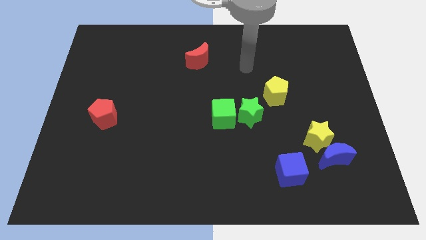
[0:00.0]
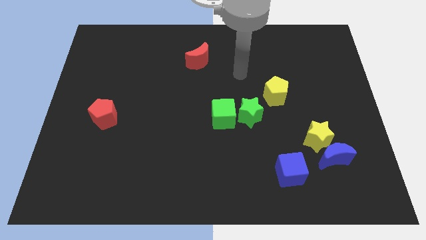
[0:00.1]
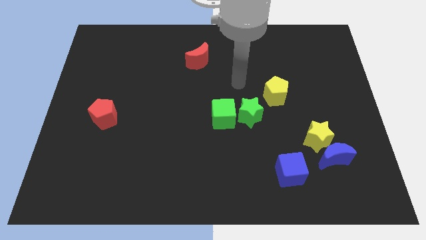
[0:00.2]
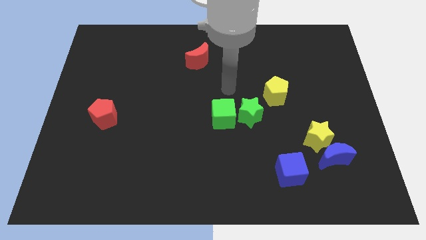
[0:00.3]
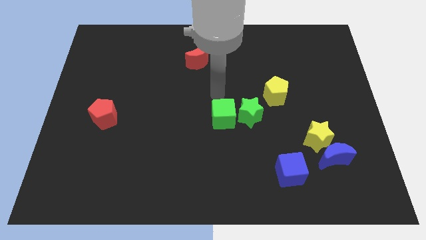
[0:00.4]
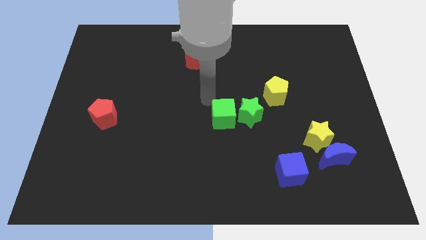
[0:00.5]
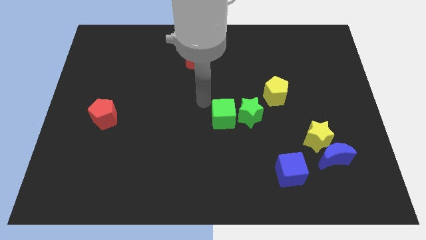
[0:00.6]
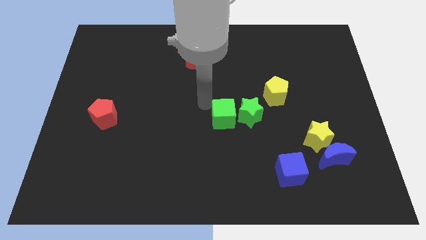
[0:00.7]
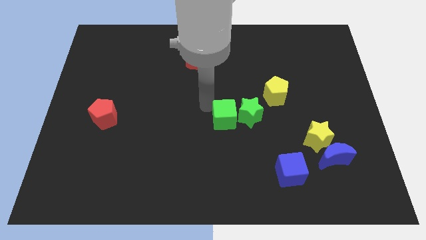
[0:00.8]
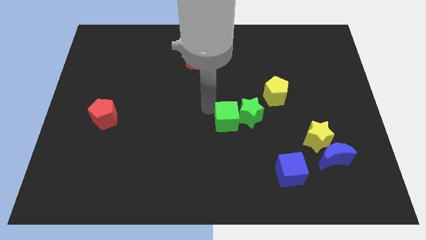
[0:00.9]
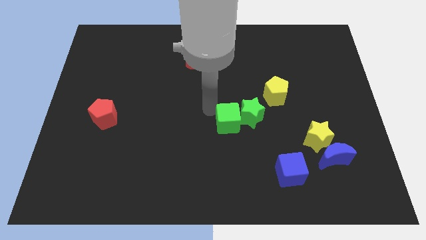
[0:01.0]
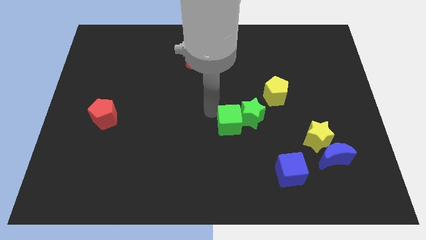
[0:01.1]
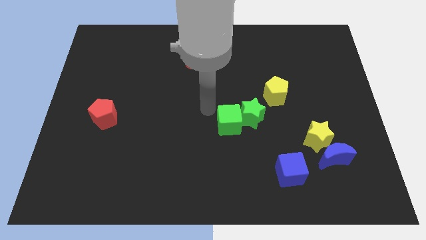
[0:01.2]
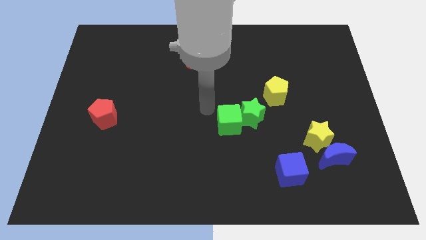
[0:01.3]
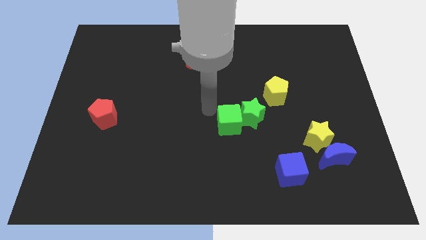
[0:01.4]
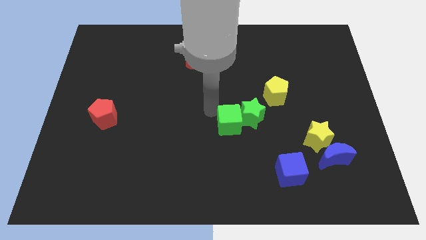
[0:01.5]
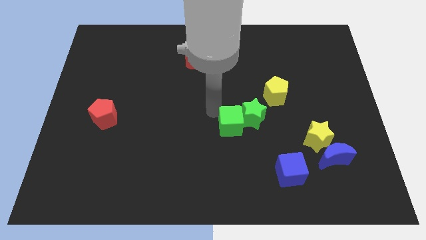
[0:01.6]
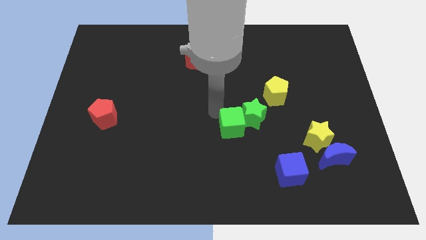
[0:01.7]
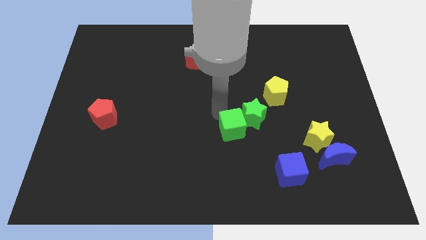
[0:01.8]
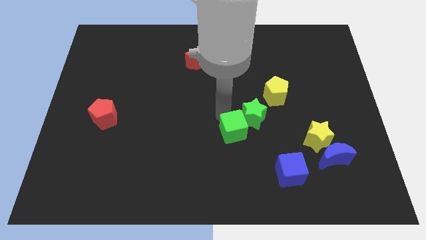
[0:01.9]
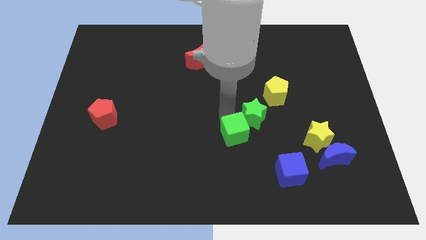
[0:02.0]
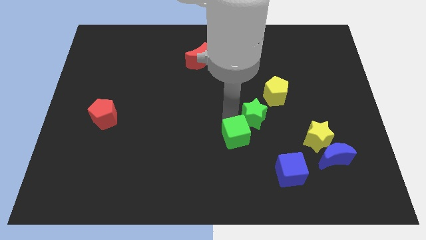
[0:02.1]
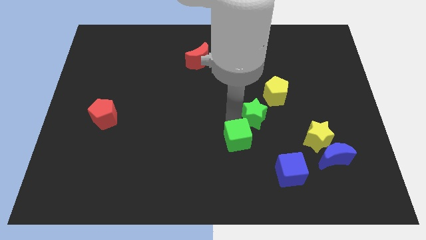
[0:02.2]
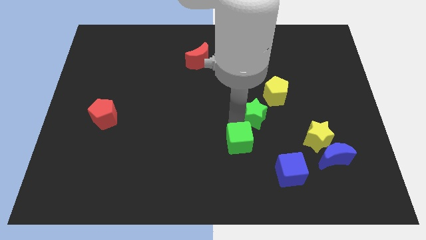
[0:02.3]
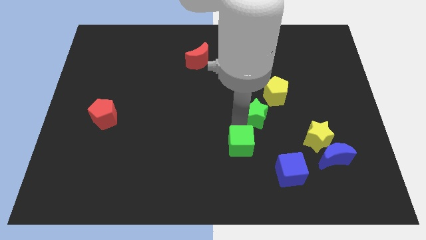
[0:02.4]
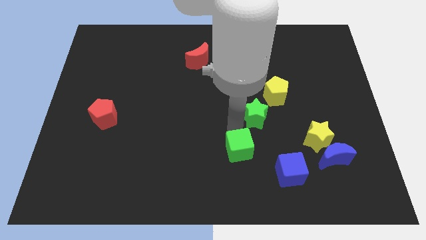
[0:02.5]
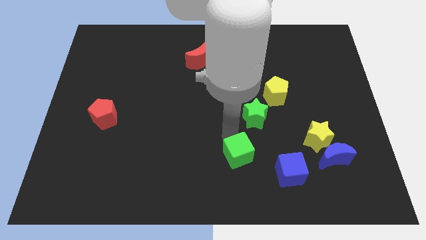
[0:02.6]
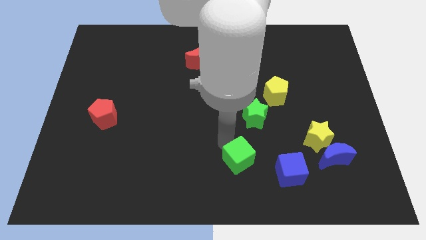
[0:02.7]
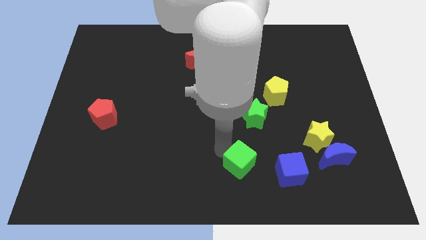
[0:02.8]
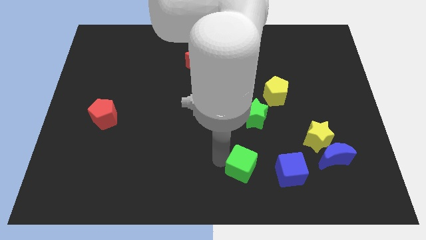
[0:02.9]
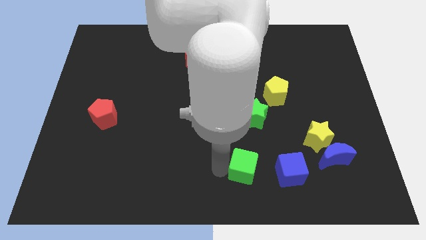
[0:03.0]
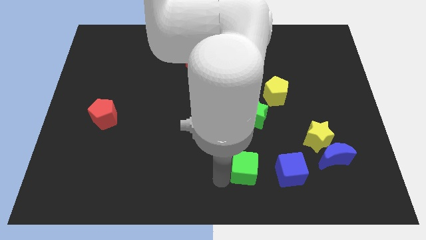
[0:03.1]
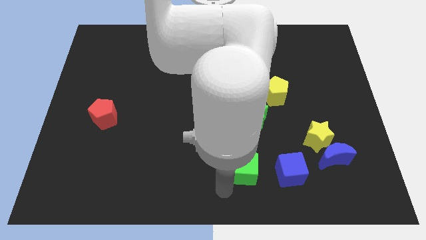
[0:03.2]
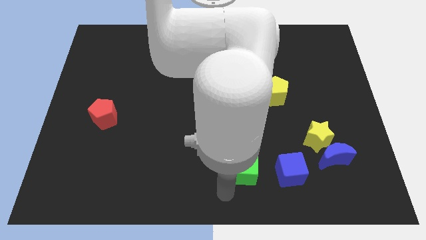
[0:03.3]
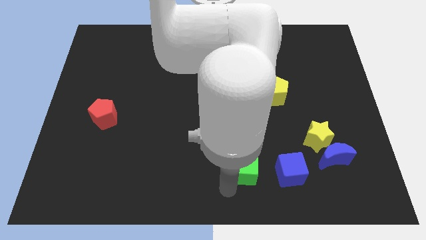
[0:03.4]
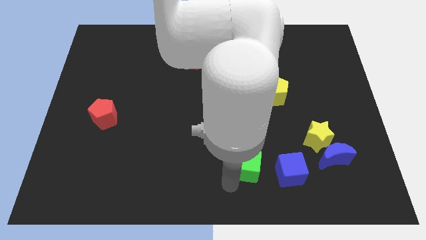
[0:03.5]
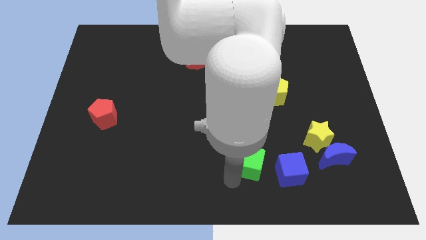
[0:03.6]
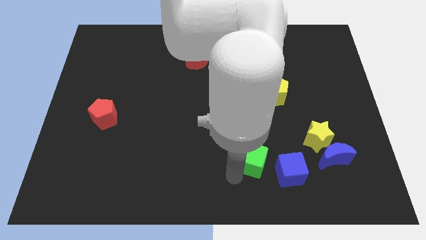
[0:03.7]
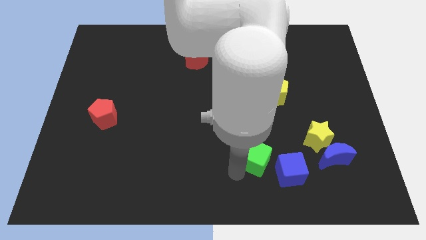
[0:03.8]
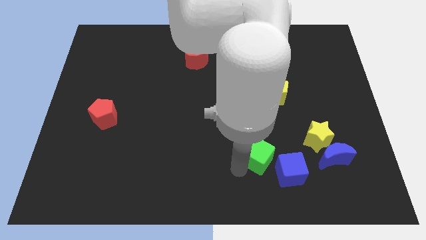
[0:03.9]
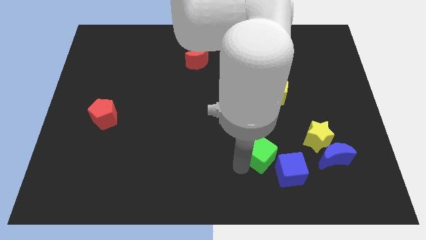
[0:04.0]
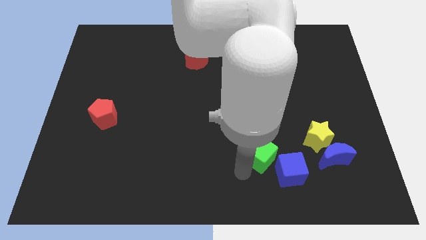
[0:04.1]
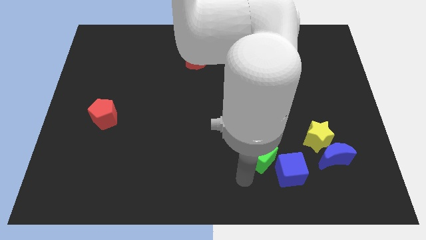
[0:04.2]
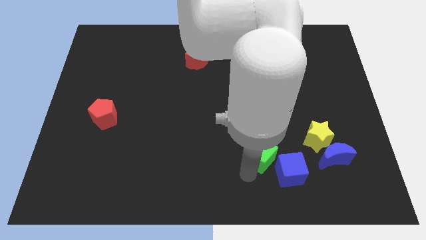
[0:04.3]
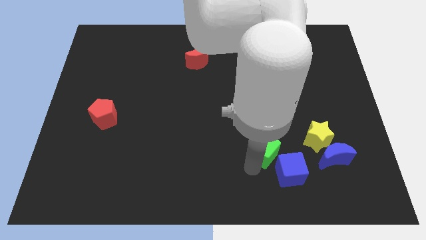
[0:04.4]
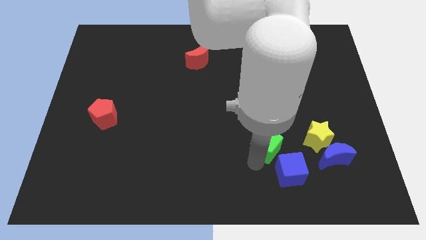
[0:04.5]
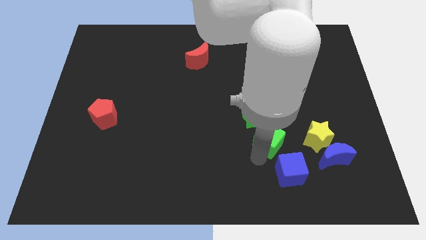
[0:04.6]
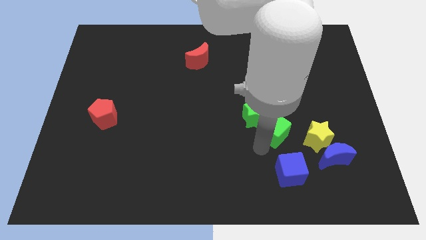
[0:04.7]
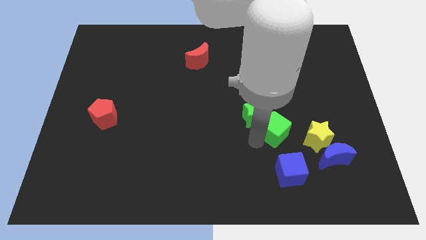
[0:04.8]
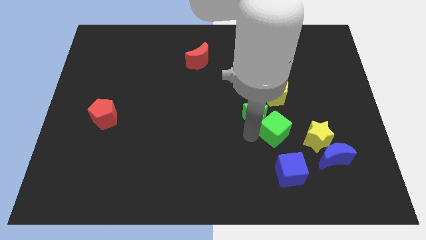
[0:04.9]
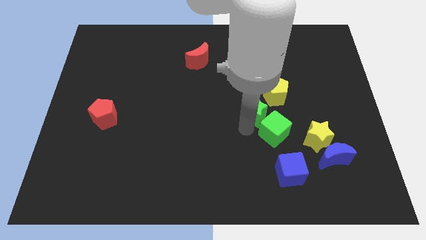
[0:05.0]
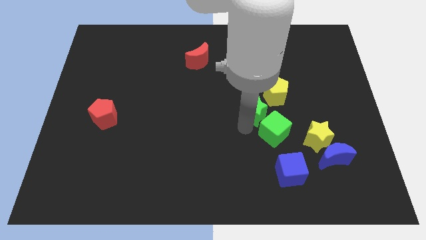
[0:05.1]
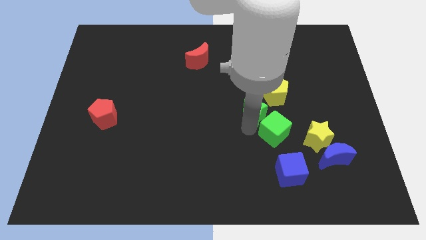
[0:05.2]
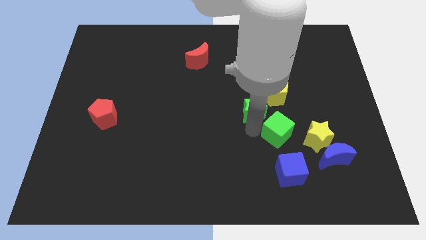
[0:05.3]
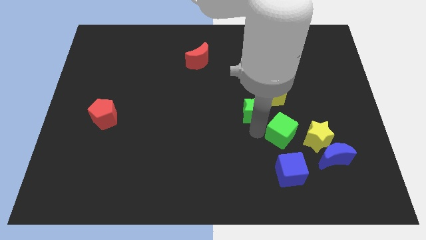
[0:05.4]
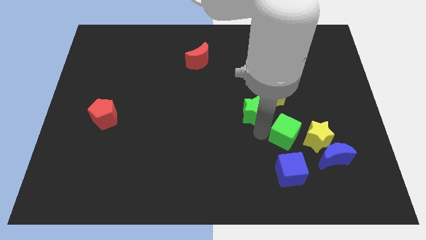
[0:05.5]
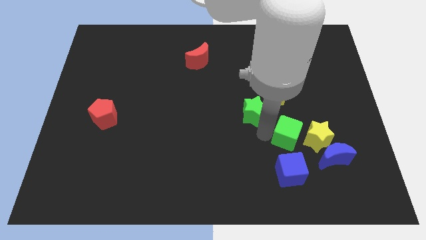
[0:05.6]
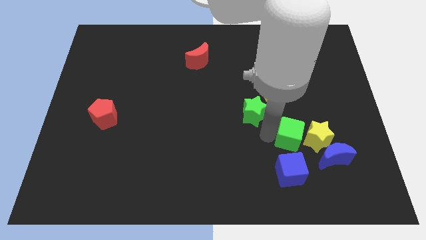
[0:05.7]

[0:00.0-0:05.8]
put the green cube towards the yellow star

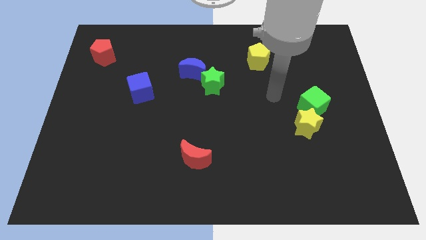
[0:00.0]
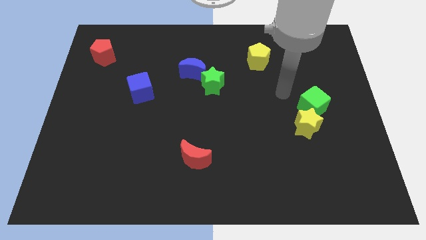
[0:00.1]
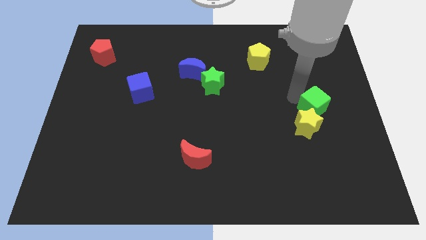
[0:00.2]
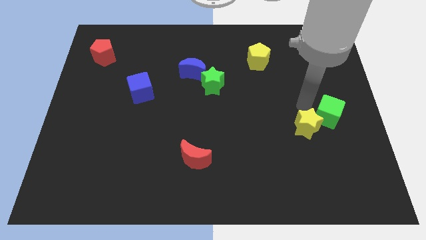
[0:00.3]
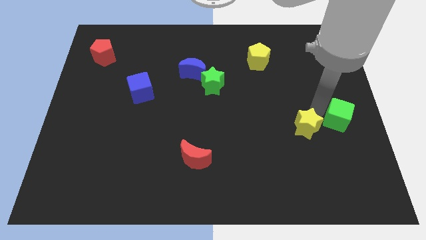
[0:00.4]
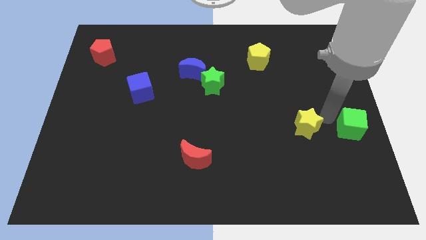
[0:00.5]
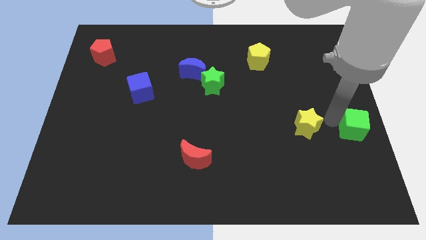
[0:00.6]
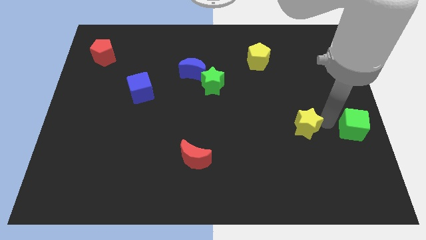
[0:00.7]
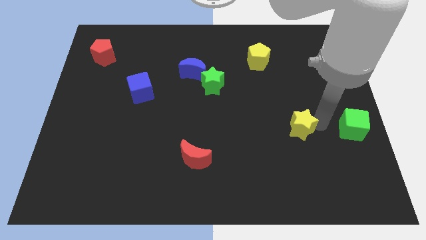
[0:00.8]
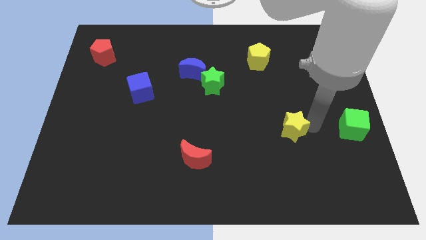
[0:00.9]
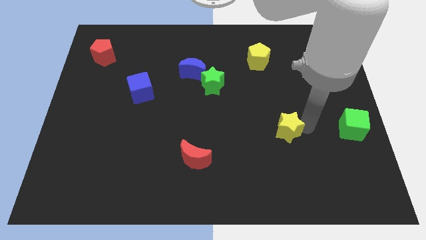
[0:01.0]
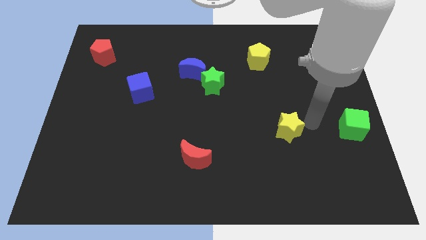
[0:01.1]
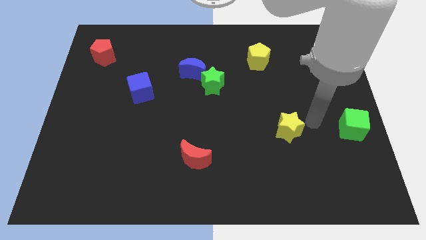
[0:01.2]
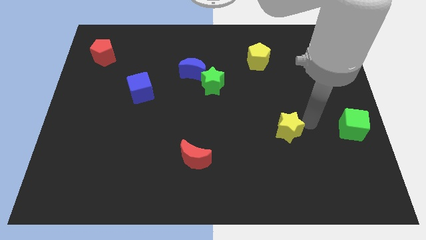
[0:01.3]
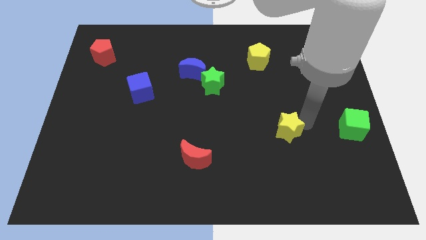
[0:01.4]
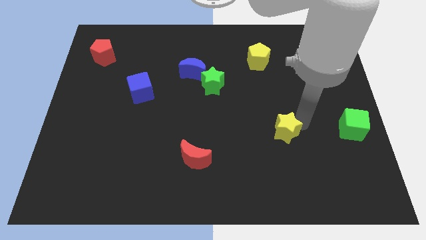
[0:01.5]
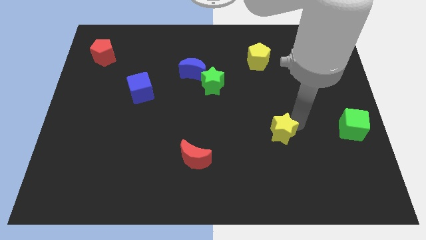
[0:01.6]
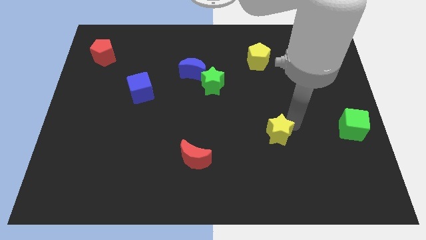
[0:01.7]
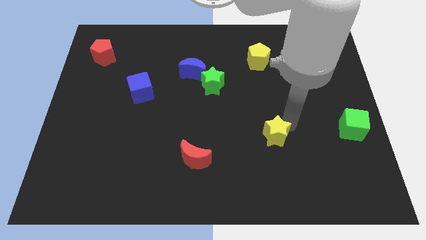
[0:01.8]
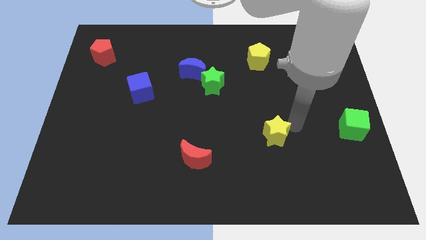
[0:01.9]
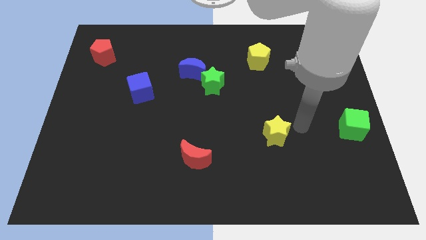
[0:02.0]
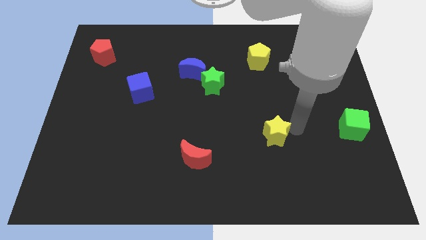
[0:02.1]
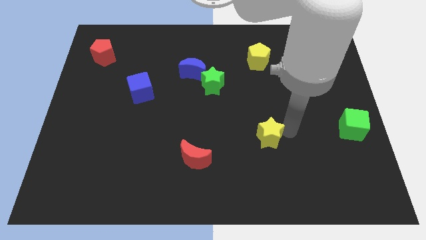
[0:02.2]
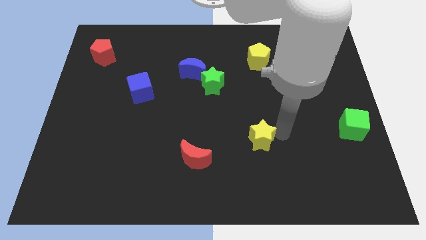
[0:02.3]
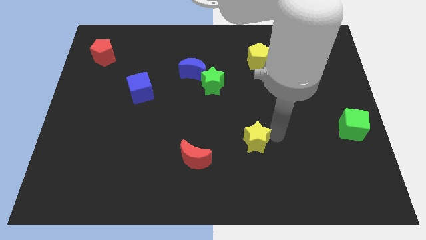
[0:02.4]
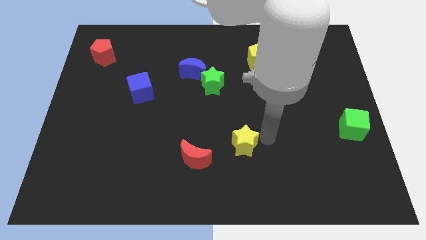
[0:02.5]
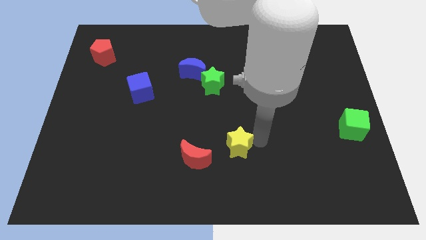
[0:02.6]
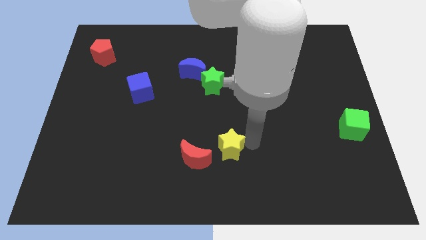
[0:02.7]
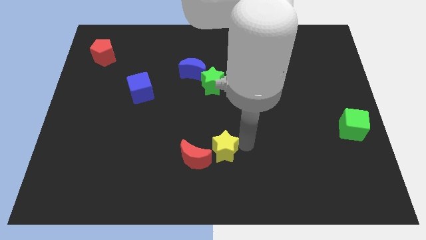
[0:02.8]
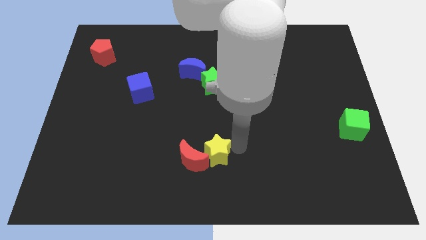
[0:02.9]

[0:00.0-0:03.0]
move the yellow star towards the red moon
